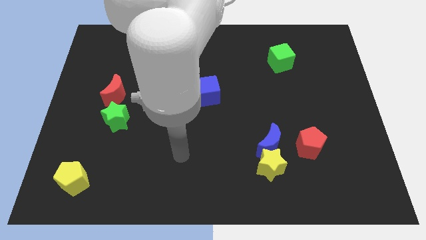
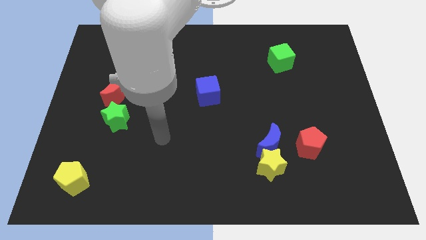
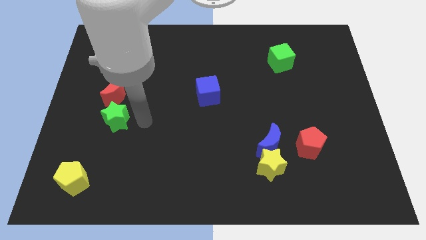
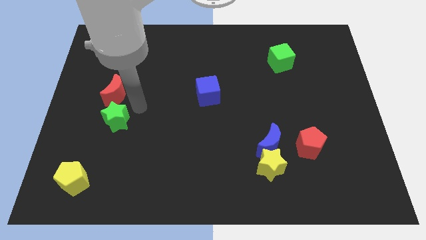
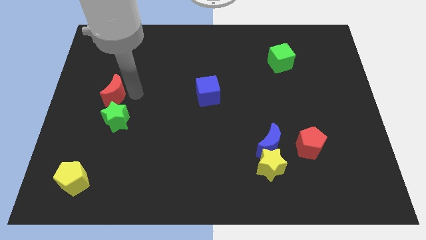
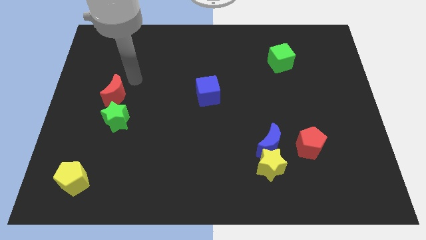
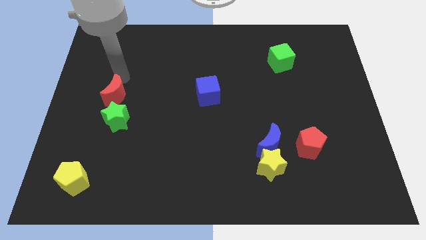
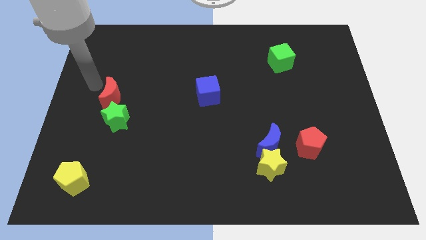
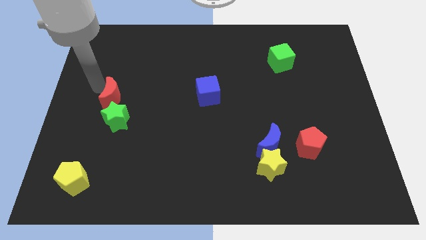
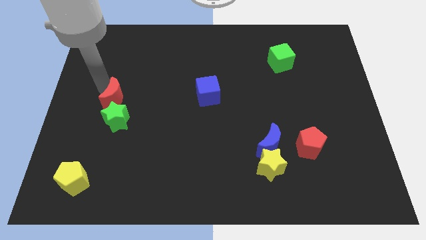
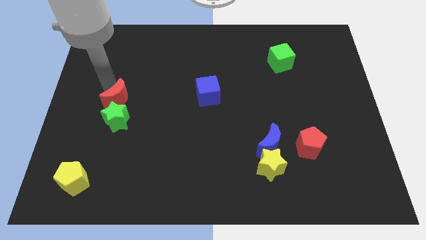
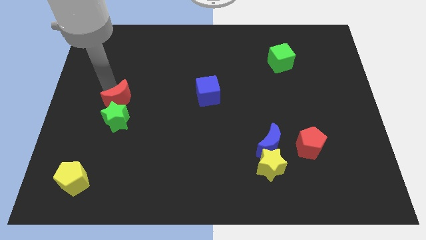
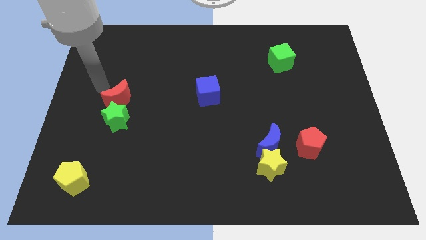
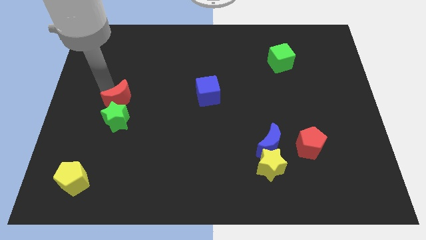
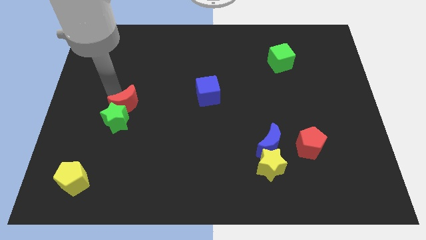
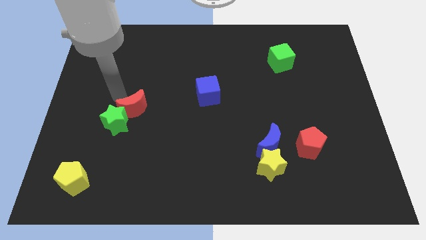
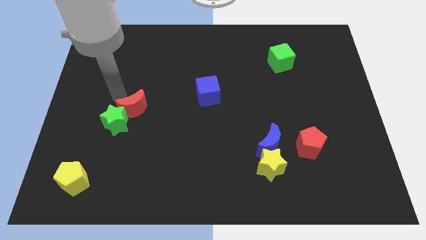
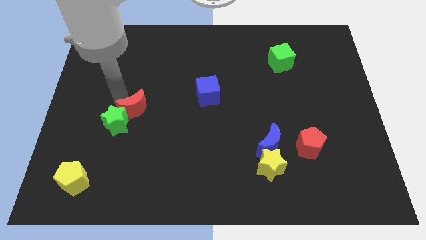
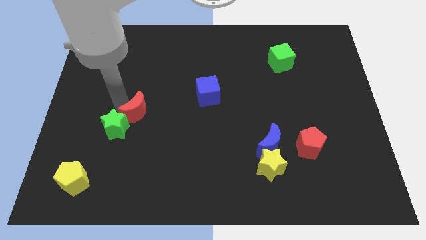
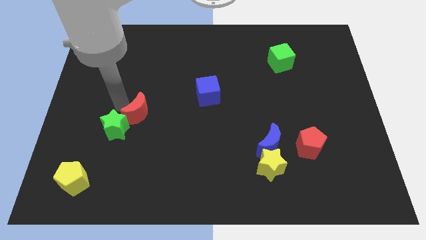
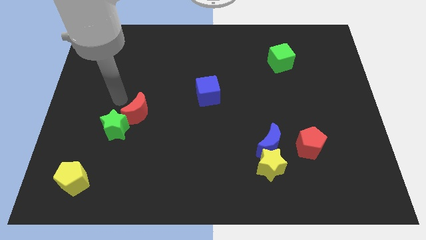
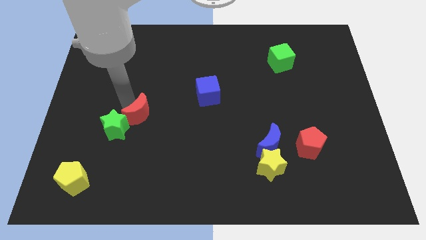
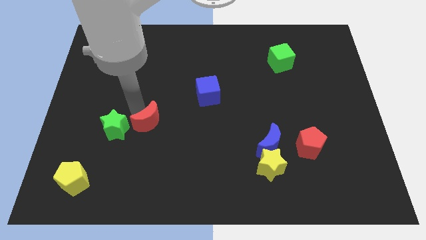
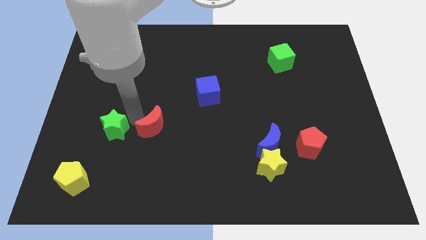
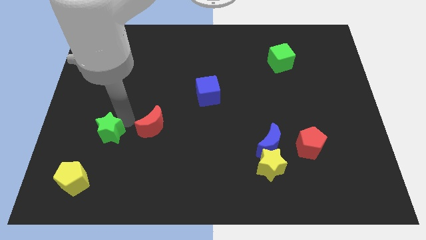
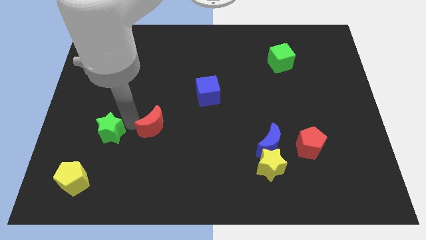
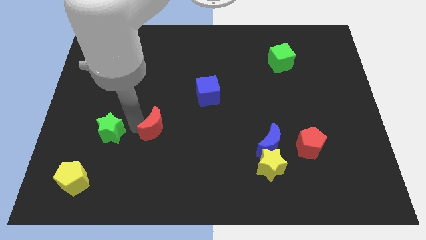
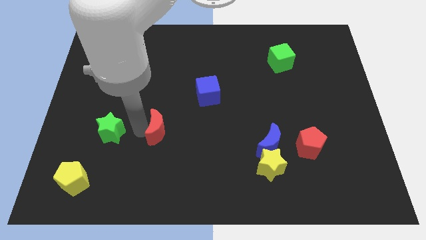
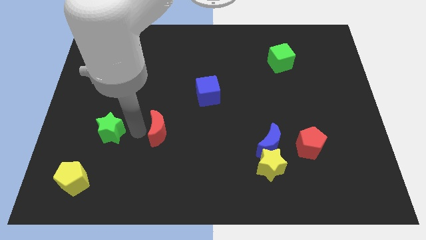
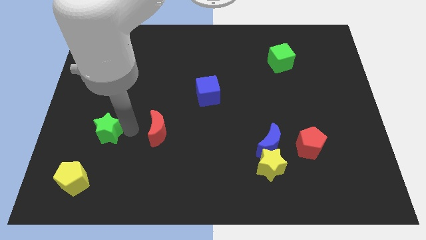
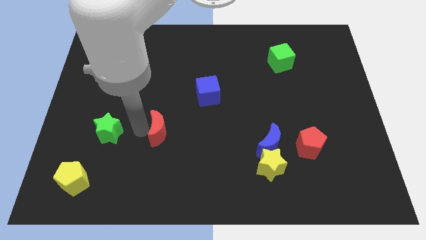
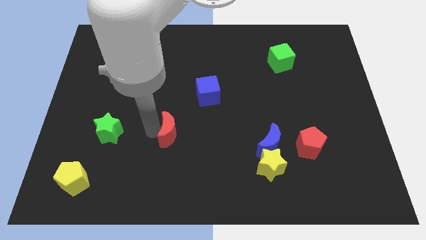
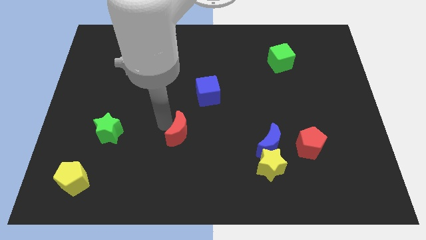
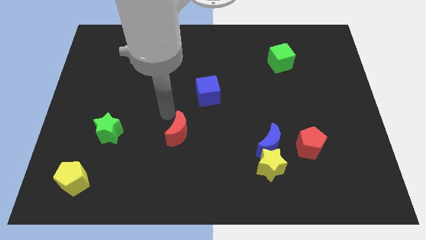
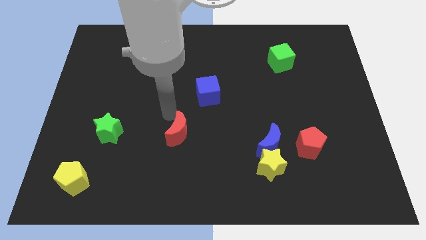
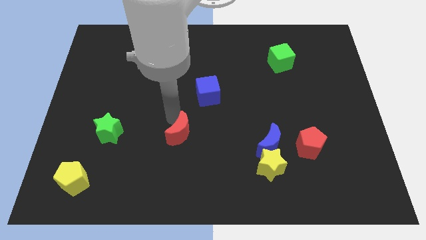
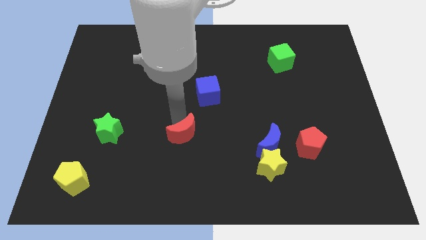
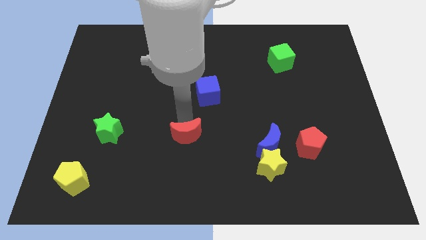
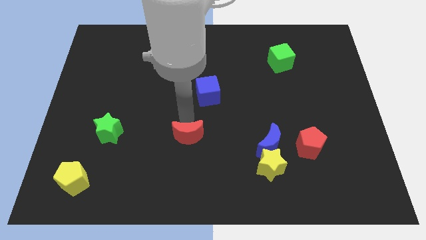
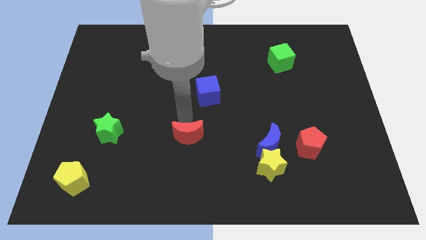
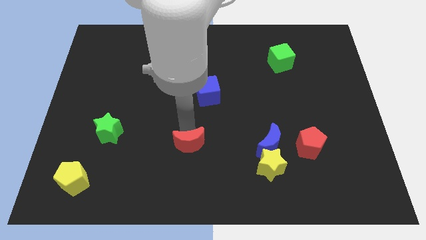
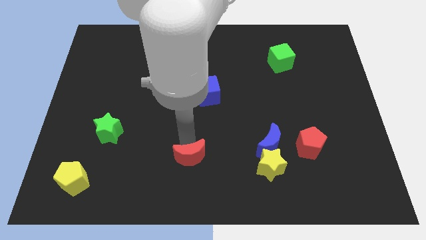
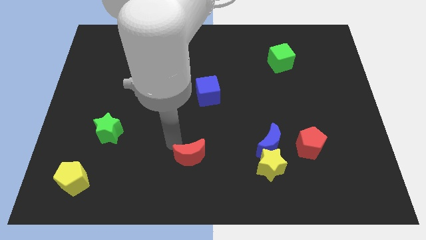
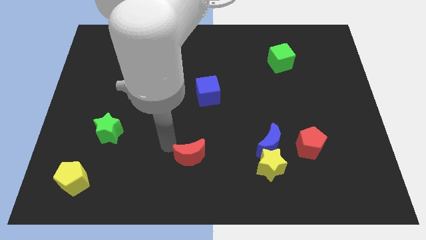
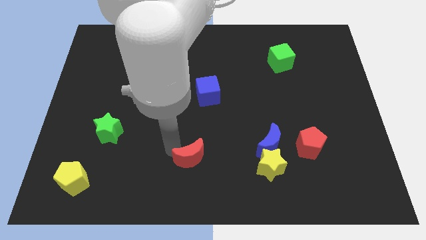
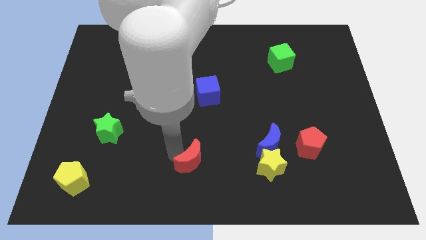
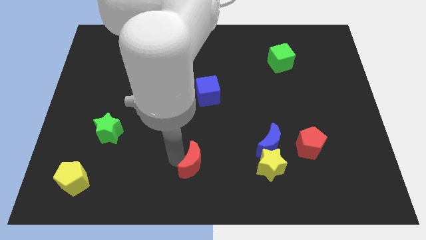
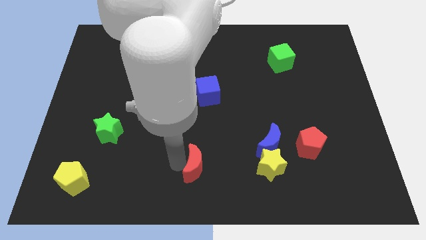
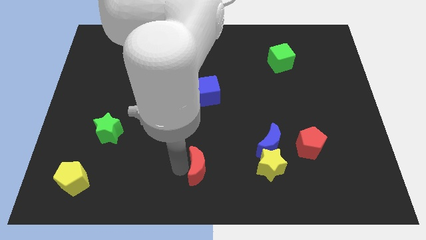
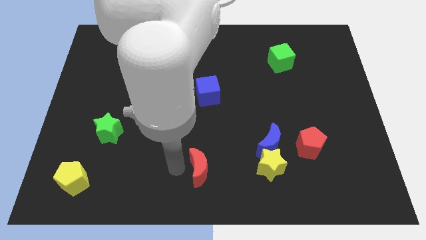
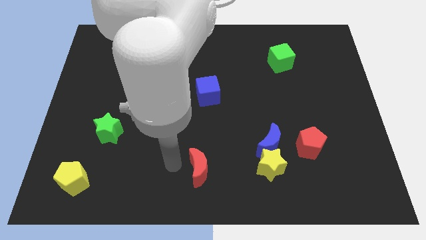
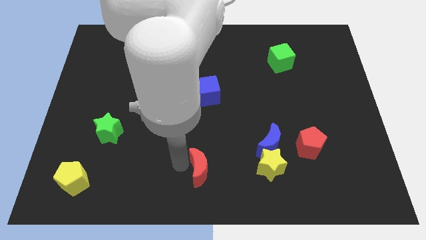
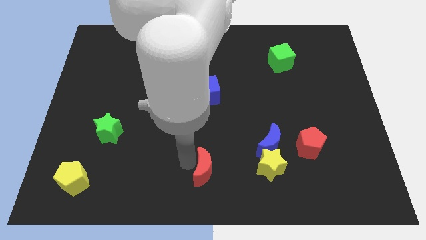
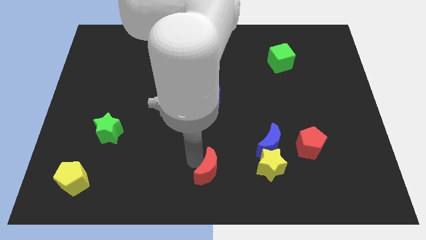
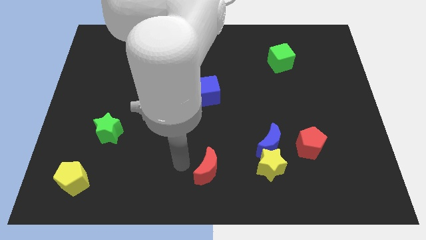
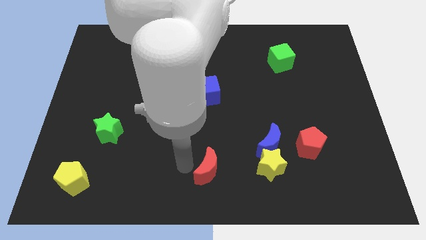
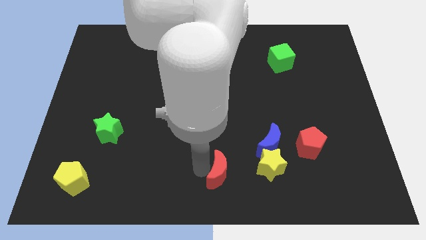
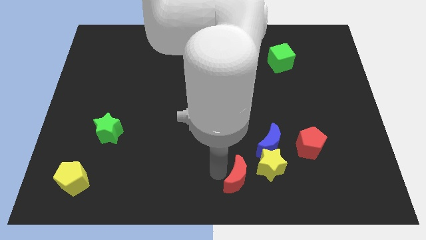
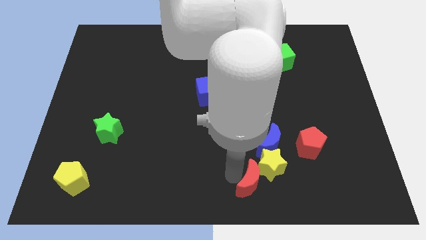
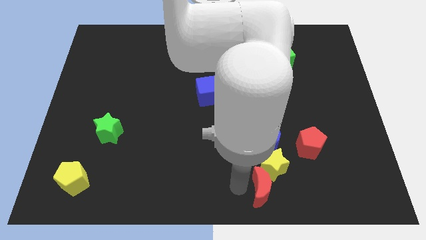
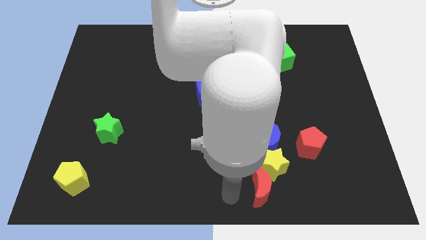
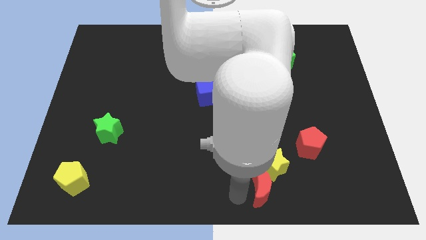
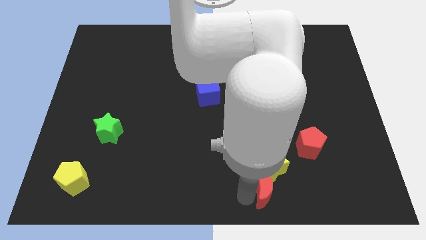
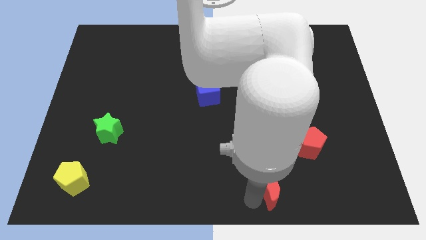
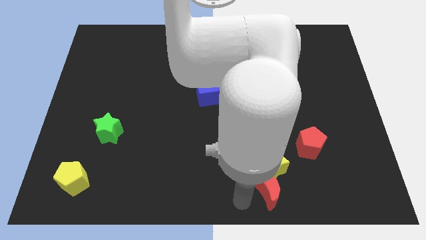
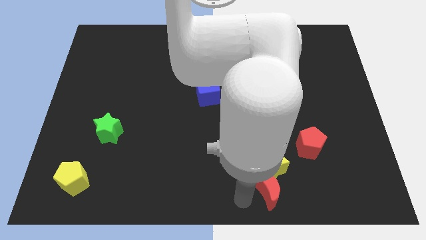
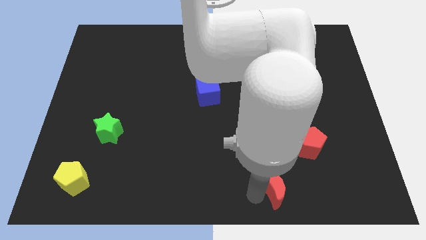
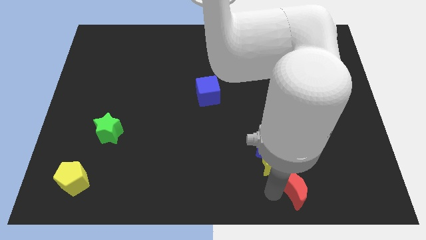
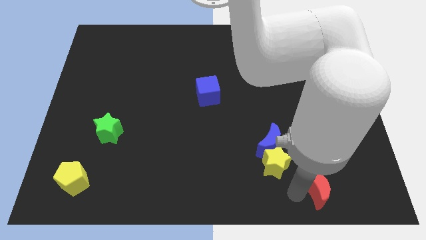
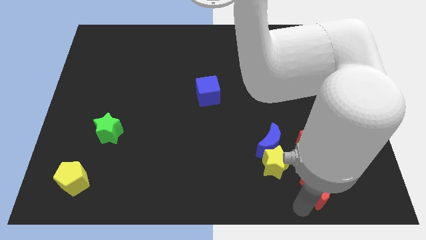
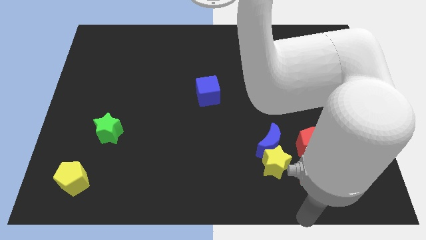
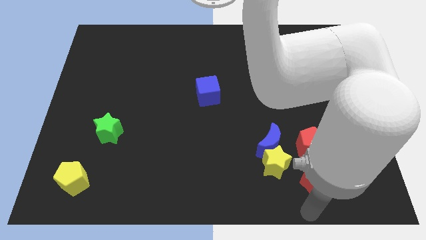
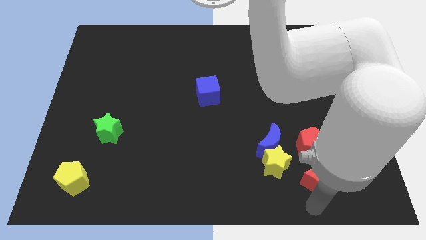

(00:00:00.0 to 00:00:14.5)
put the red moon to the right side of the yellow star

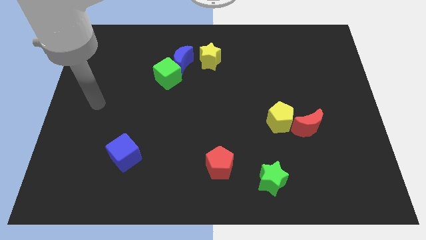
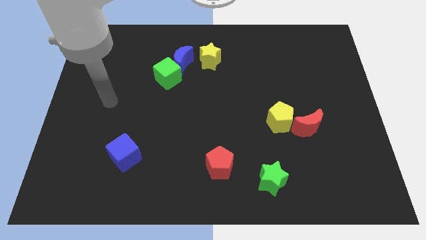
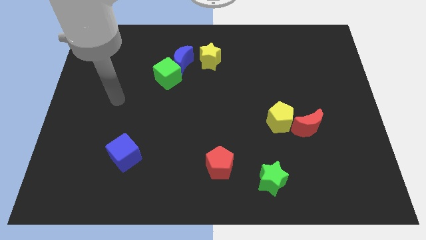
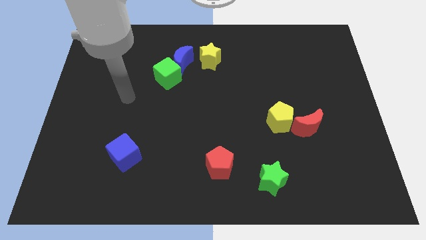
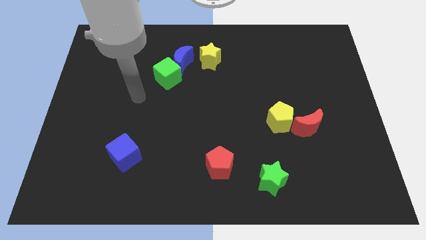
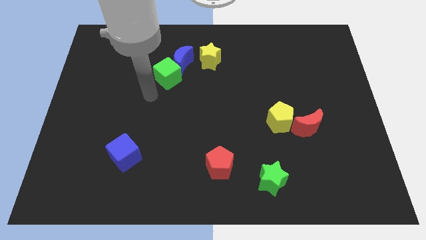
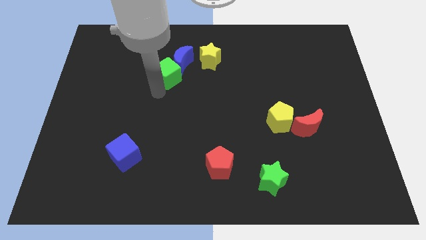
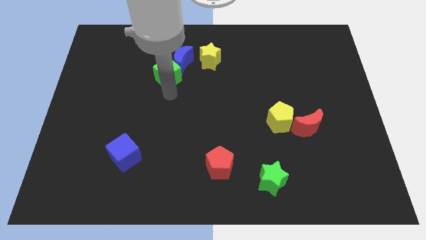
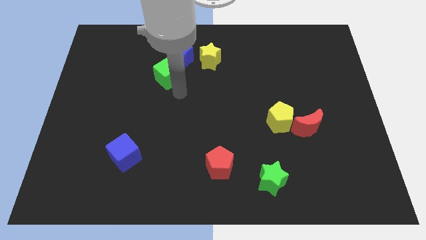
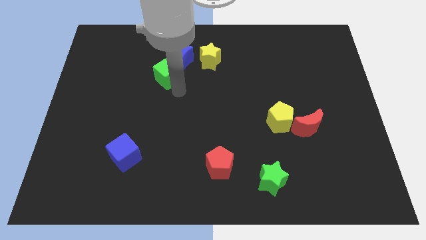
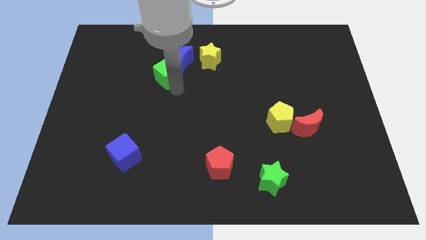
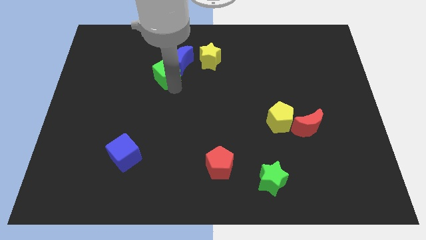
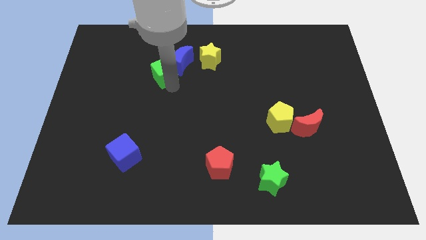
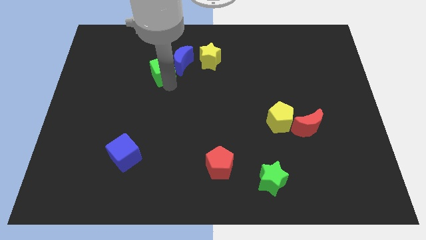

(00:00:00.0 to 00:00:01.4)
put the green cube to the left side of the yellow star
